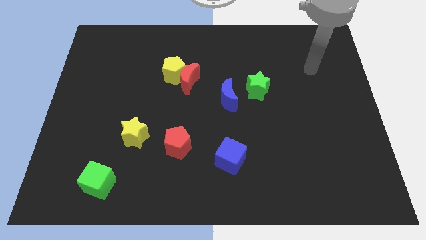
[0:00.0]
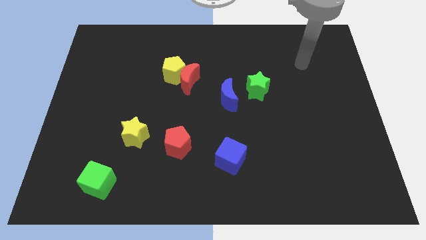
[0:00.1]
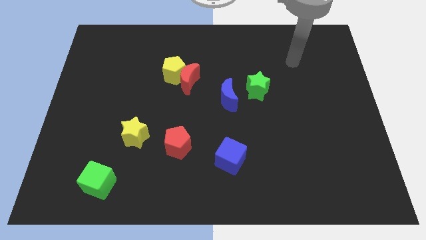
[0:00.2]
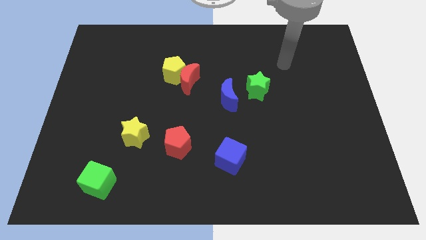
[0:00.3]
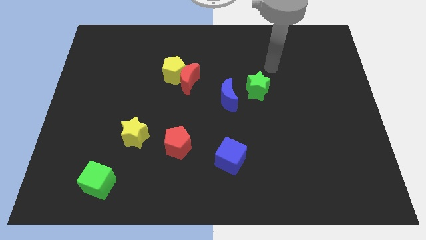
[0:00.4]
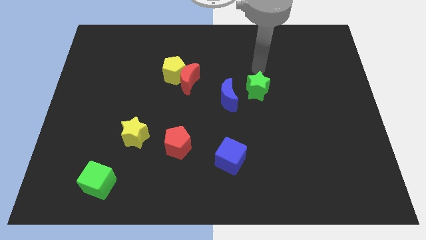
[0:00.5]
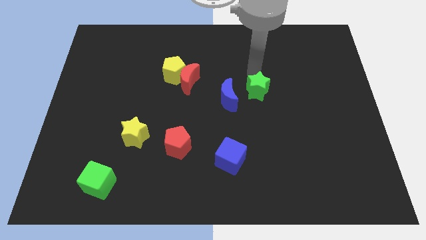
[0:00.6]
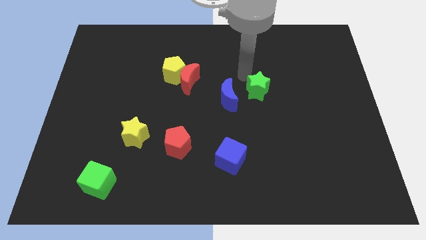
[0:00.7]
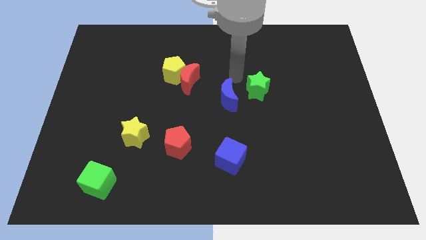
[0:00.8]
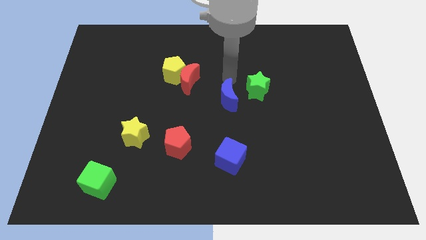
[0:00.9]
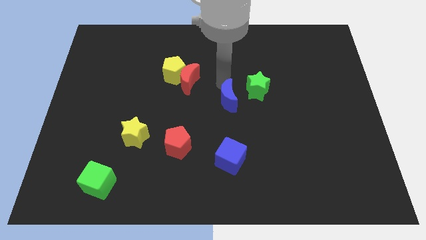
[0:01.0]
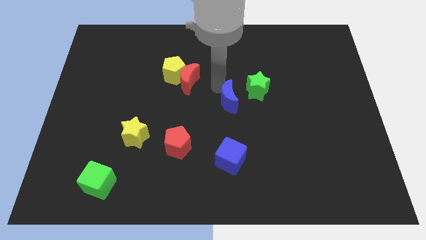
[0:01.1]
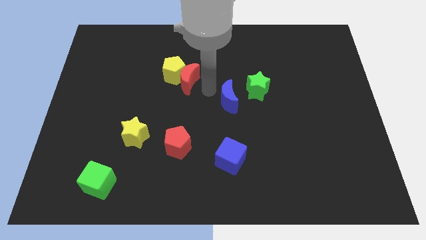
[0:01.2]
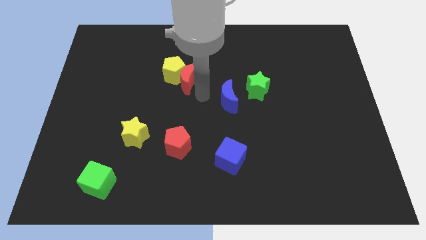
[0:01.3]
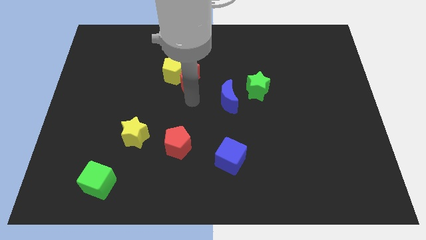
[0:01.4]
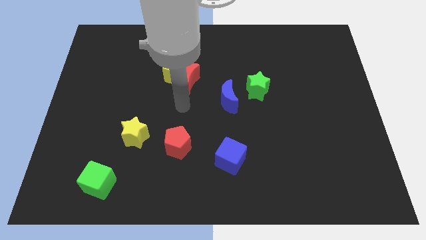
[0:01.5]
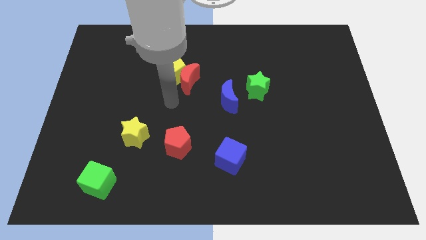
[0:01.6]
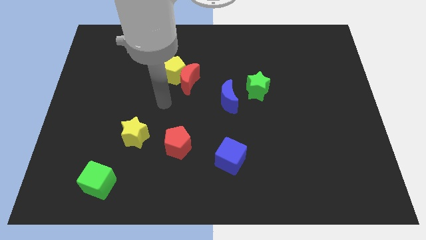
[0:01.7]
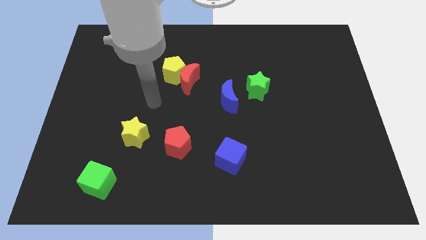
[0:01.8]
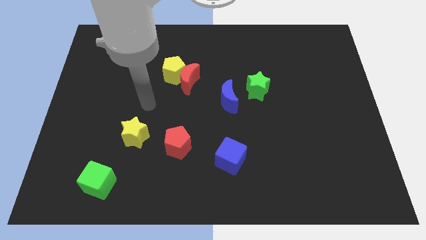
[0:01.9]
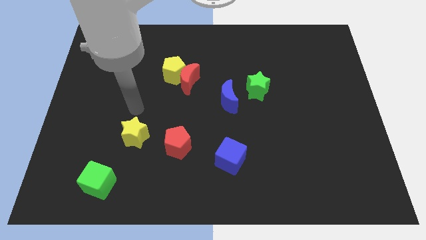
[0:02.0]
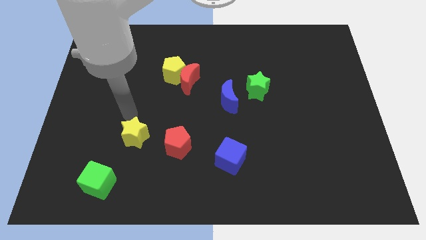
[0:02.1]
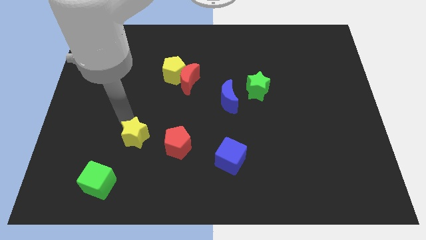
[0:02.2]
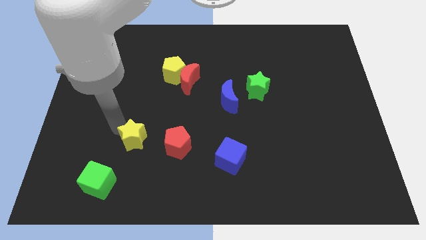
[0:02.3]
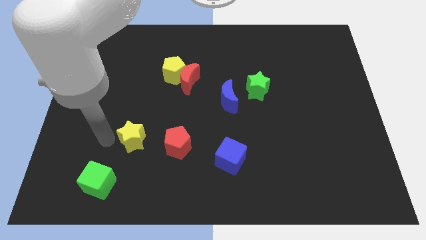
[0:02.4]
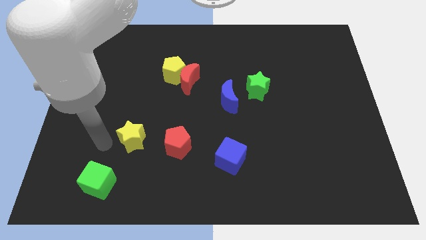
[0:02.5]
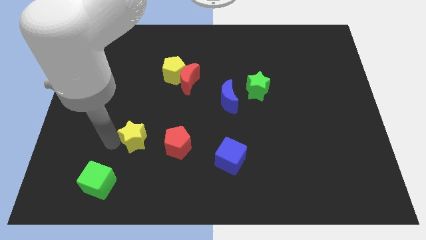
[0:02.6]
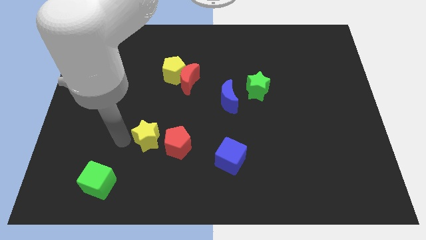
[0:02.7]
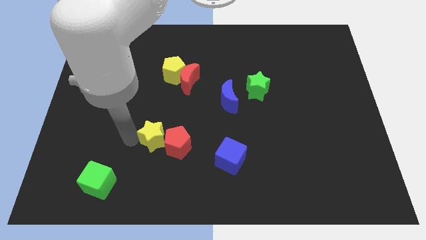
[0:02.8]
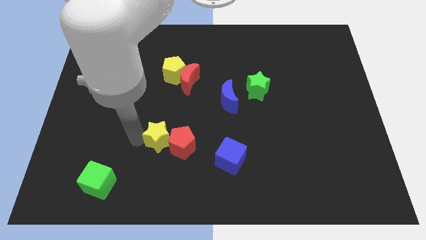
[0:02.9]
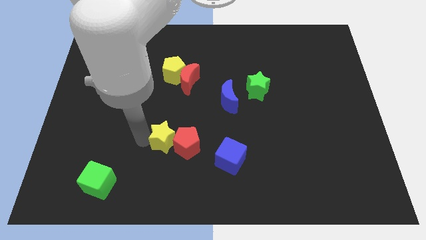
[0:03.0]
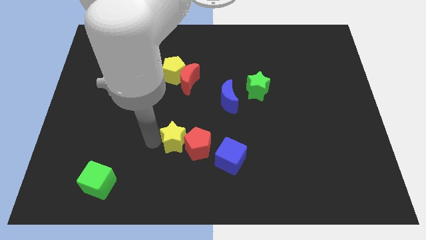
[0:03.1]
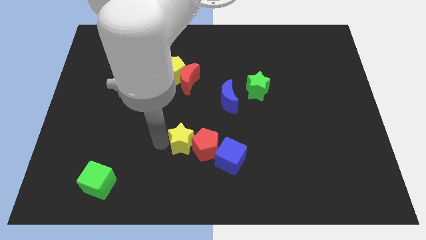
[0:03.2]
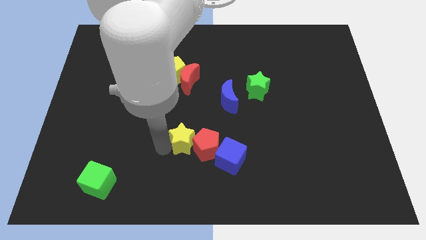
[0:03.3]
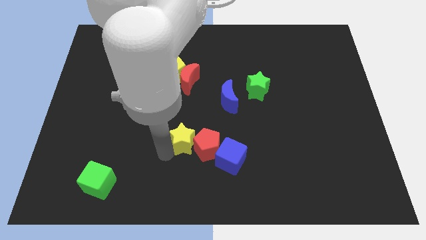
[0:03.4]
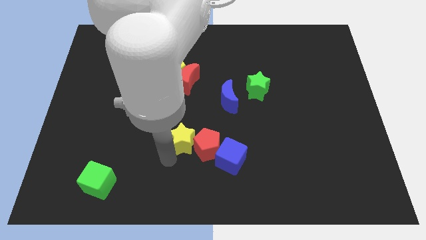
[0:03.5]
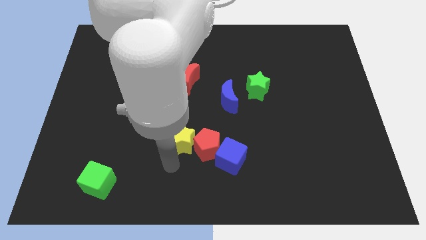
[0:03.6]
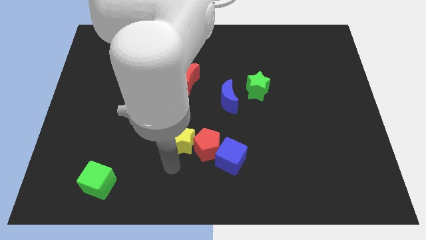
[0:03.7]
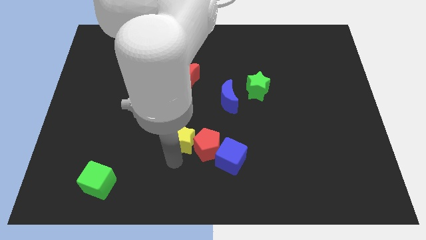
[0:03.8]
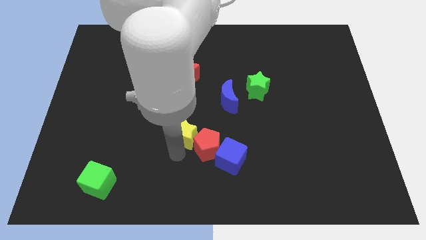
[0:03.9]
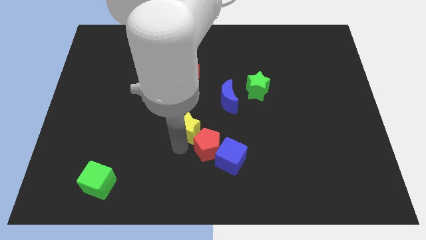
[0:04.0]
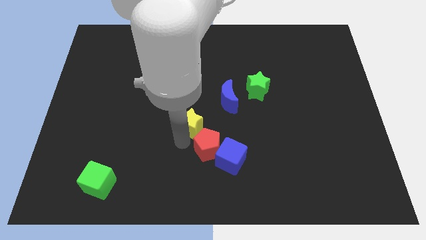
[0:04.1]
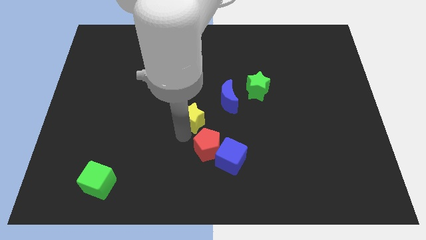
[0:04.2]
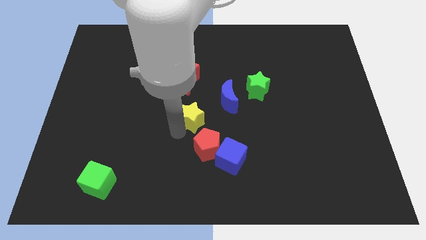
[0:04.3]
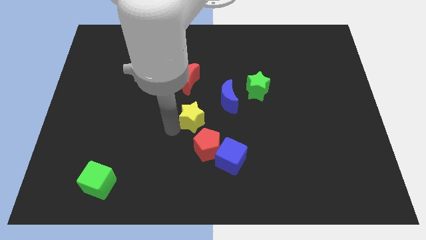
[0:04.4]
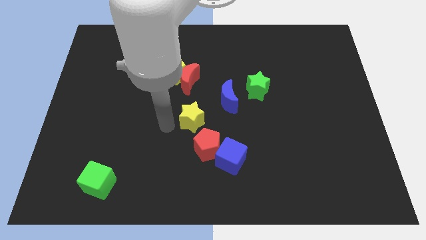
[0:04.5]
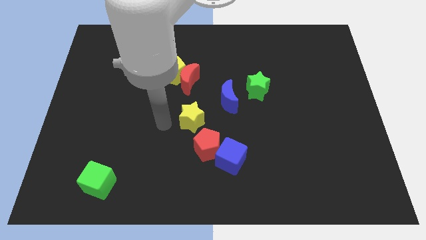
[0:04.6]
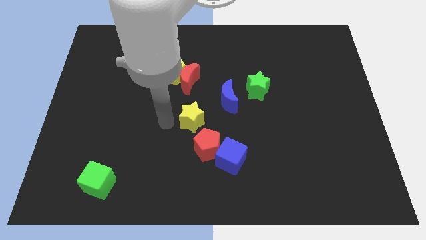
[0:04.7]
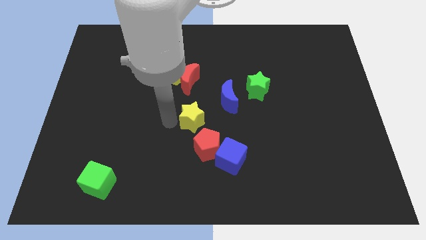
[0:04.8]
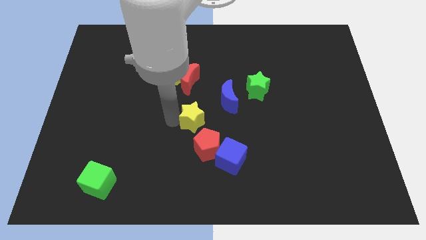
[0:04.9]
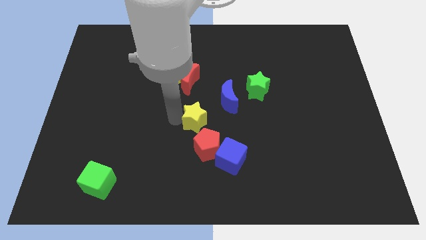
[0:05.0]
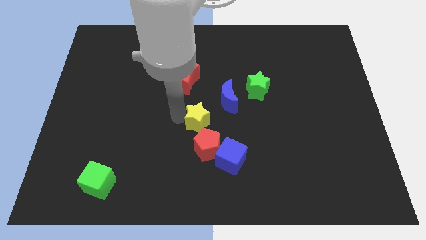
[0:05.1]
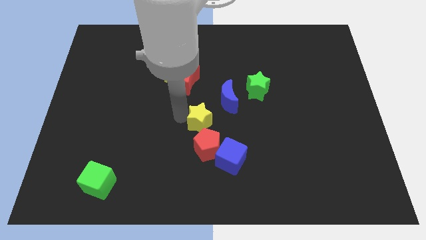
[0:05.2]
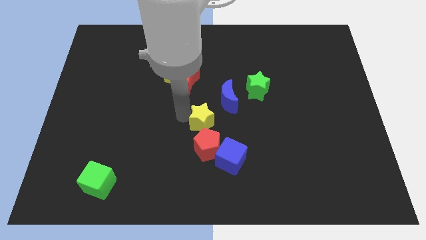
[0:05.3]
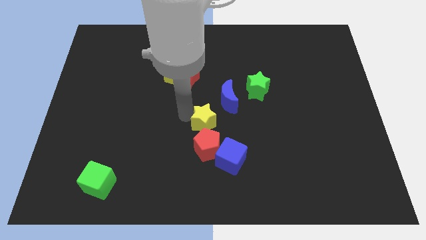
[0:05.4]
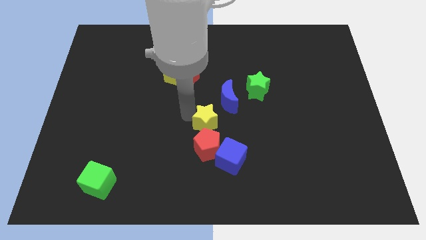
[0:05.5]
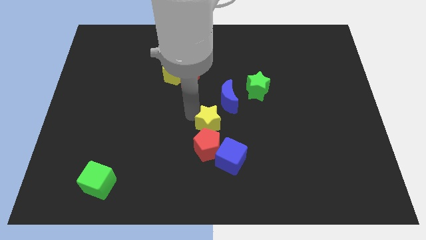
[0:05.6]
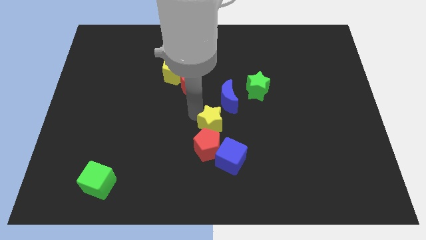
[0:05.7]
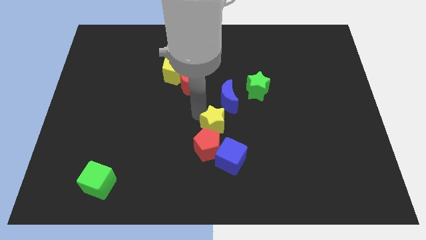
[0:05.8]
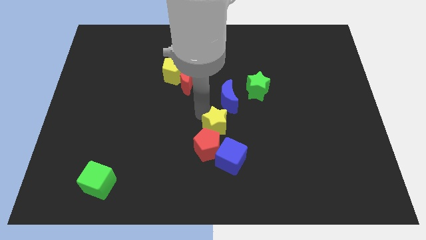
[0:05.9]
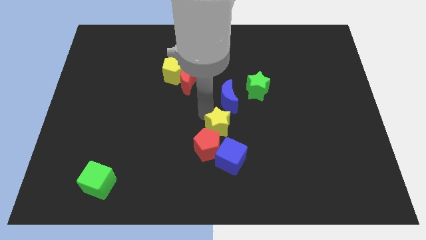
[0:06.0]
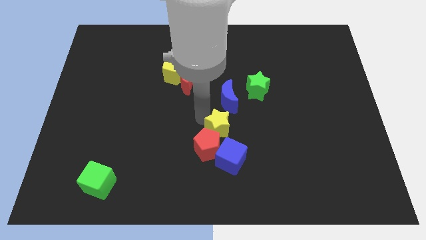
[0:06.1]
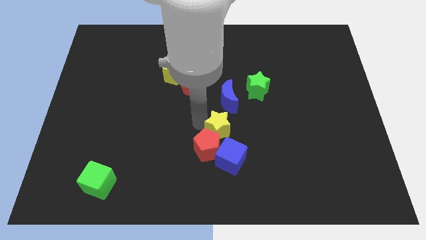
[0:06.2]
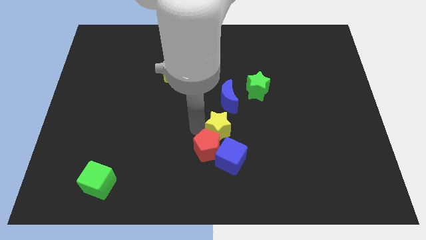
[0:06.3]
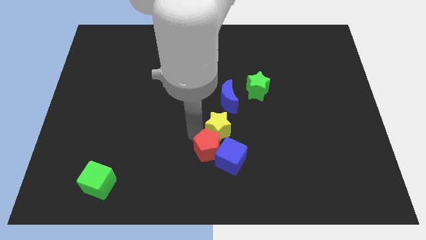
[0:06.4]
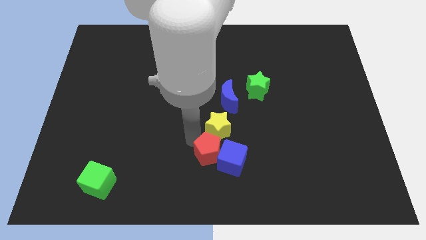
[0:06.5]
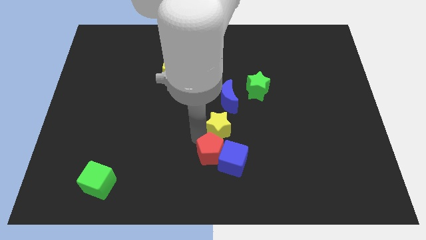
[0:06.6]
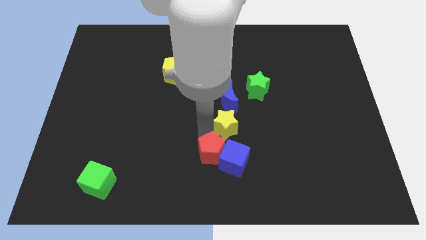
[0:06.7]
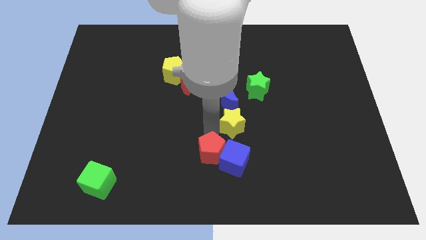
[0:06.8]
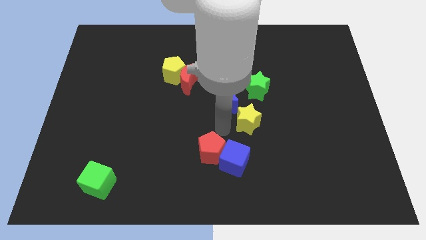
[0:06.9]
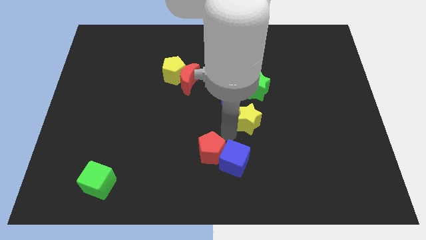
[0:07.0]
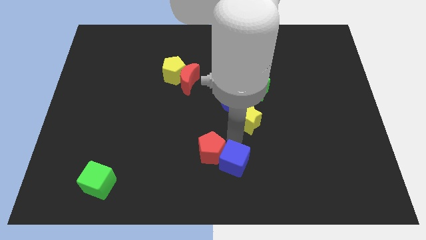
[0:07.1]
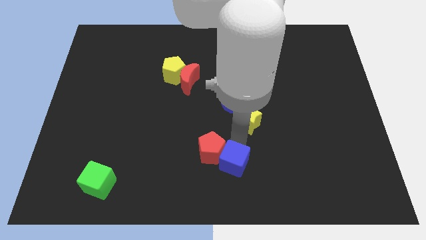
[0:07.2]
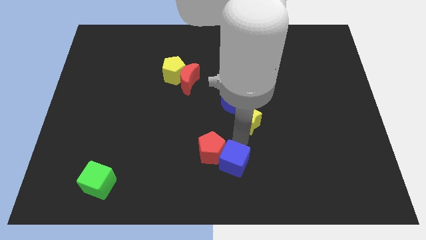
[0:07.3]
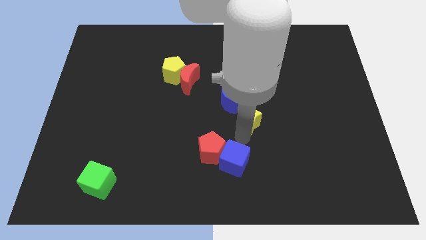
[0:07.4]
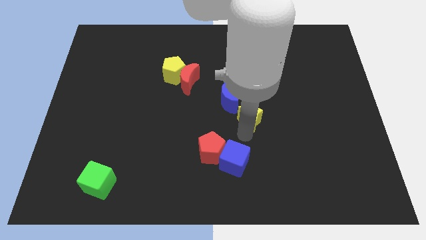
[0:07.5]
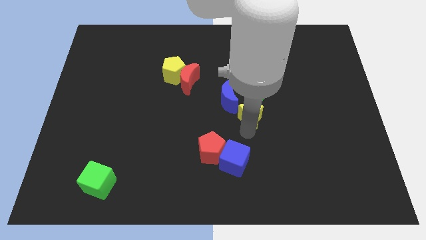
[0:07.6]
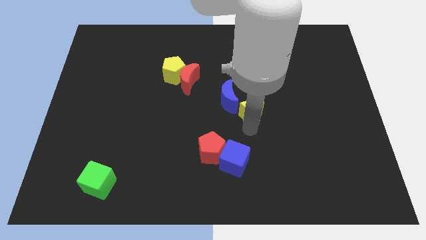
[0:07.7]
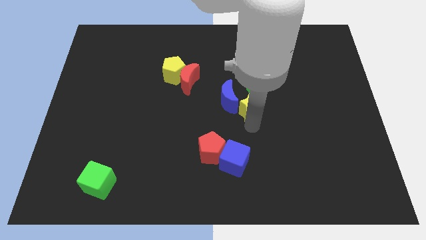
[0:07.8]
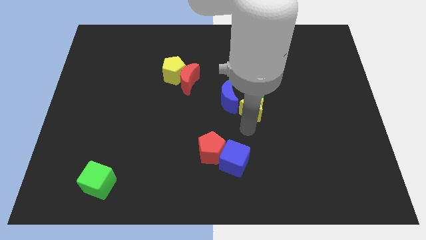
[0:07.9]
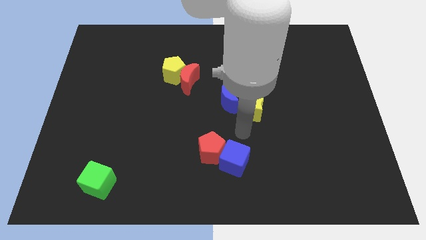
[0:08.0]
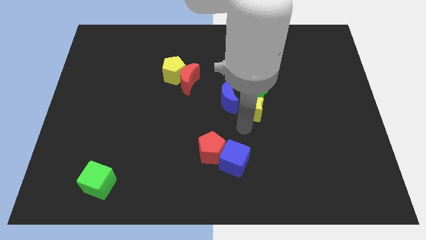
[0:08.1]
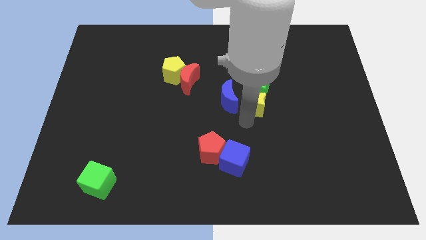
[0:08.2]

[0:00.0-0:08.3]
slide the yellow star next to the green star
